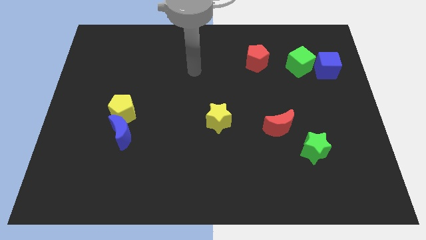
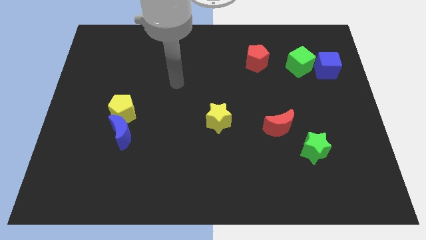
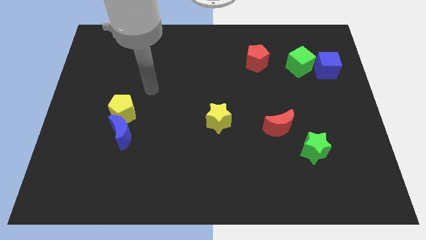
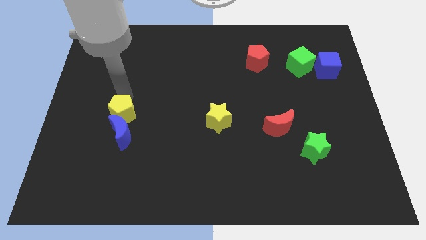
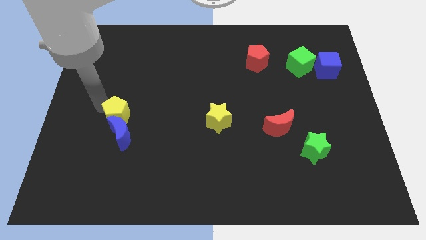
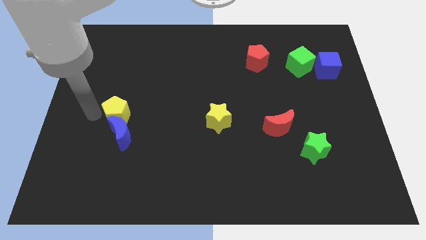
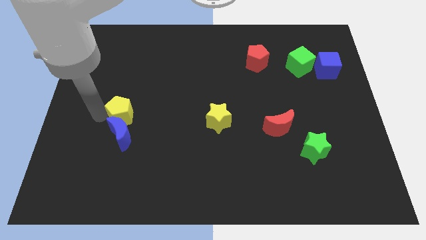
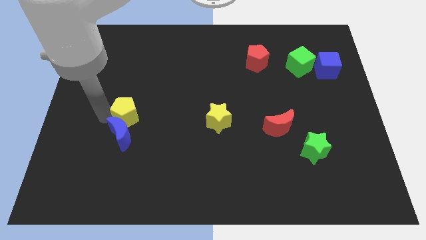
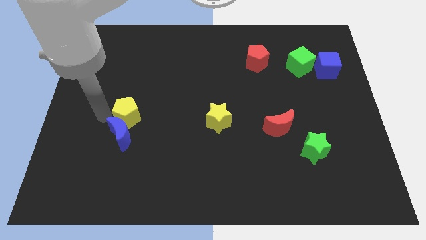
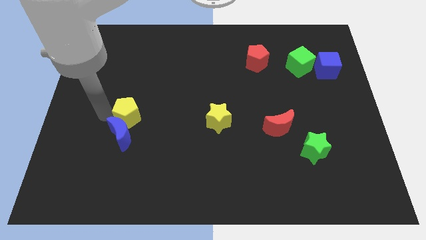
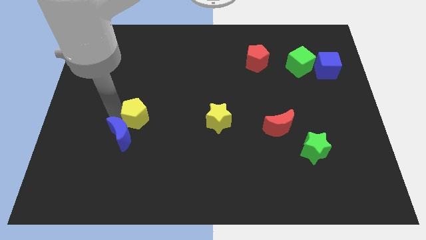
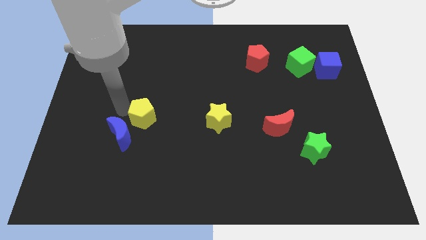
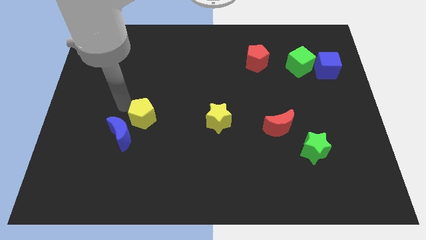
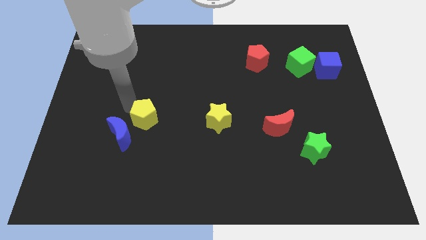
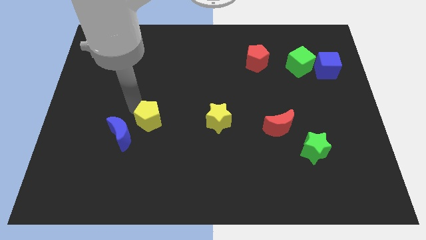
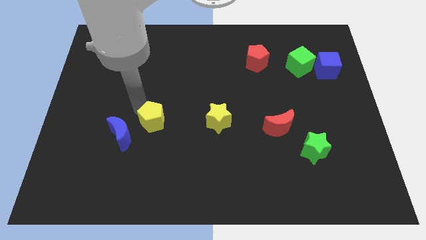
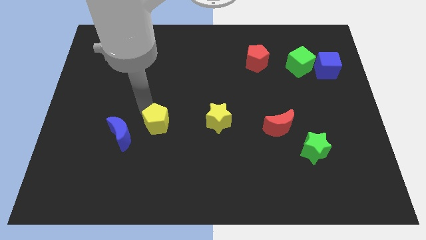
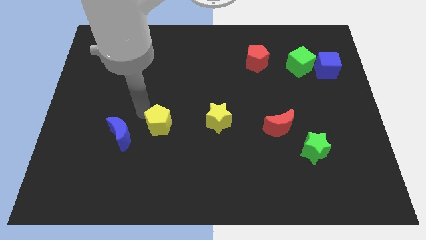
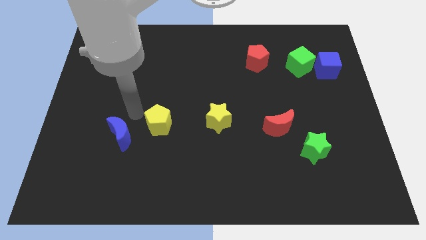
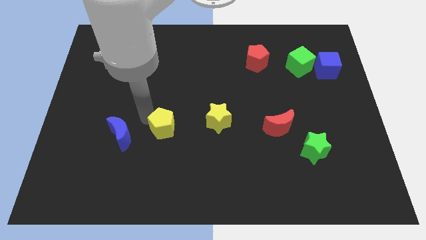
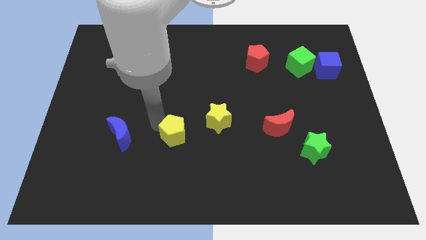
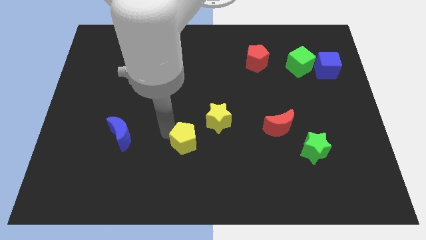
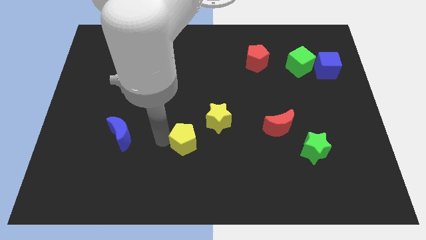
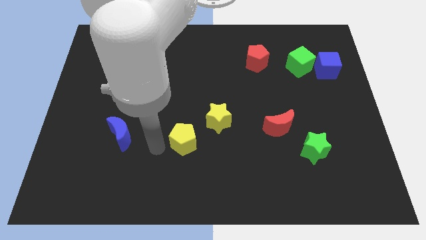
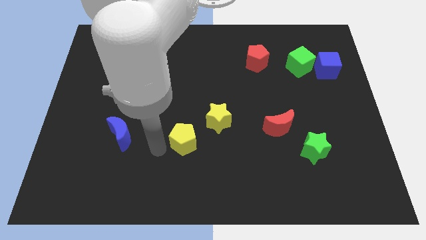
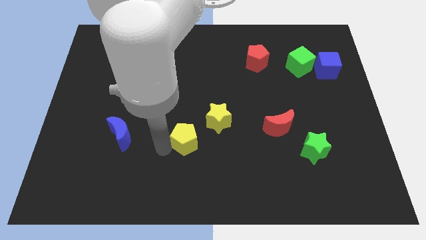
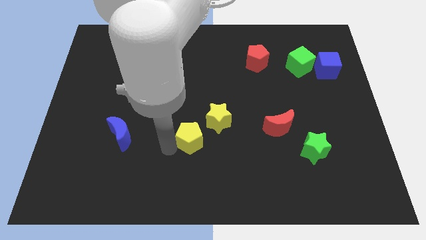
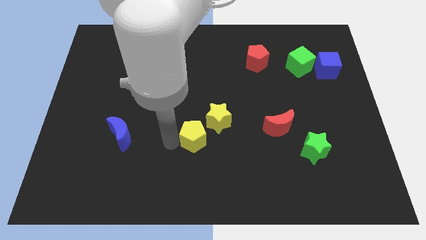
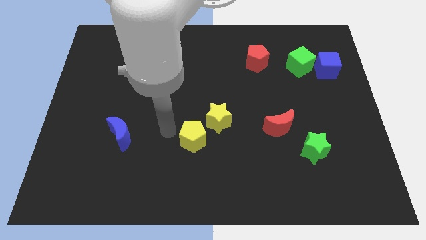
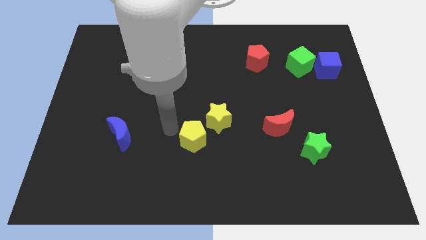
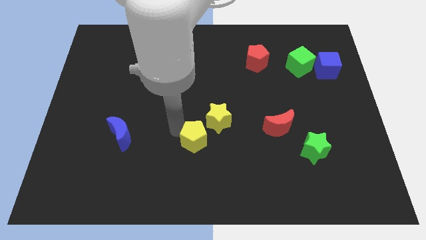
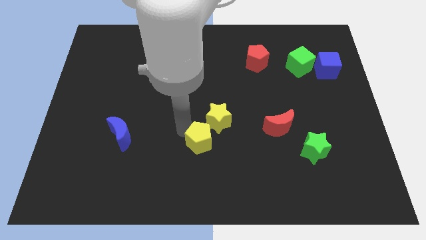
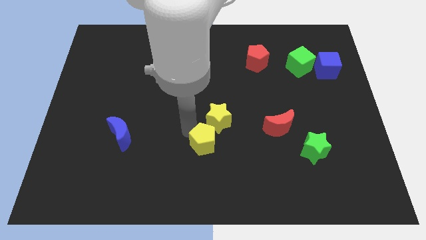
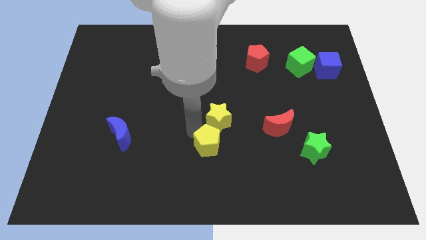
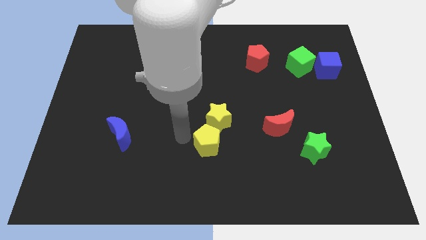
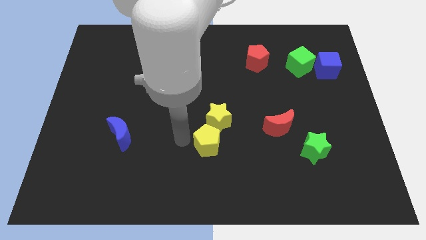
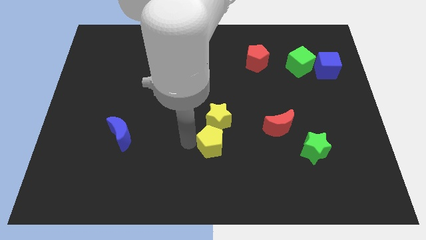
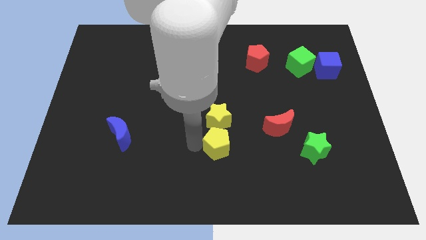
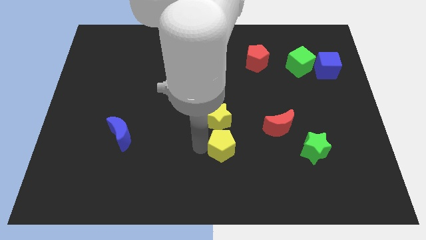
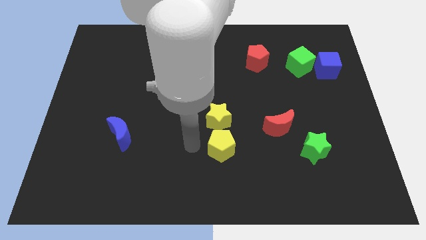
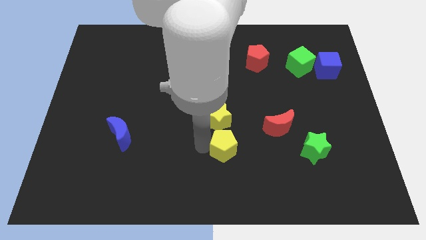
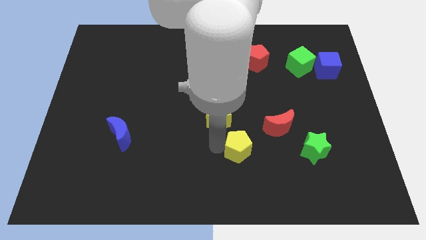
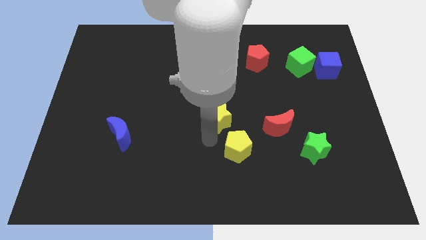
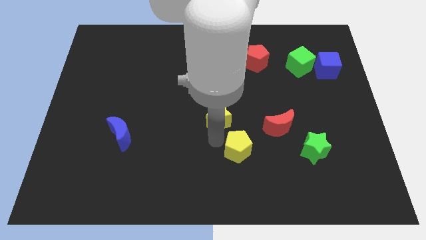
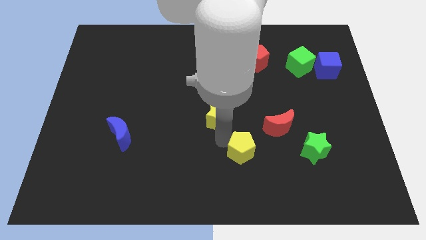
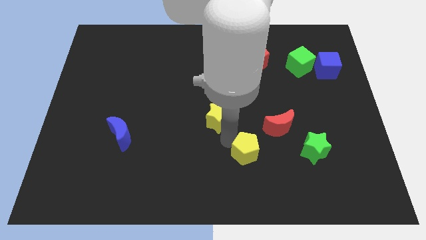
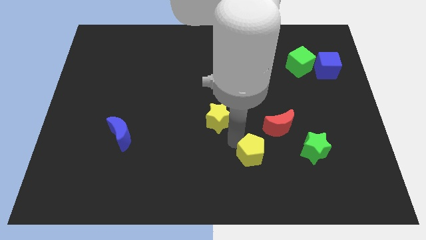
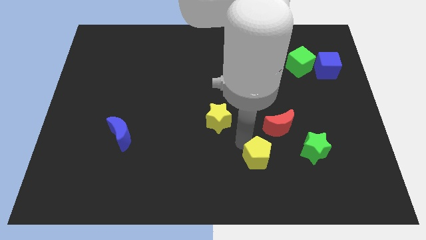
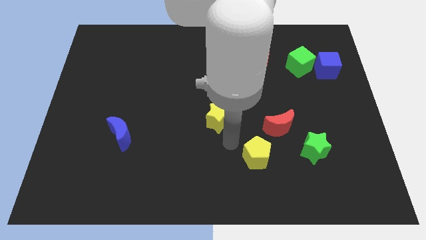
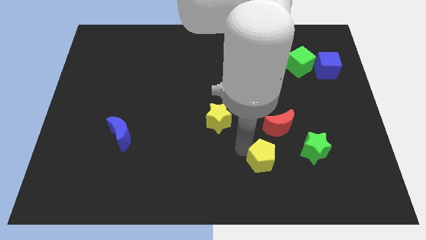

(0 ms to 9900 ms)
slide the yellow pentagon below the red moon

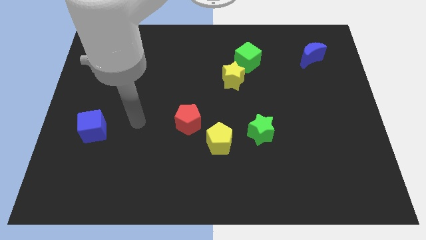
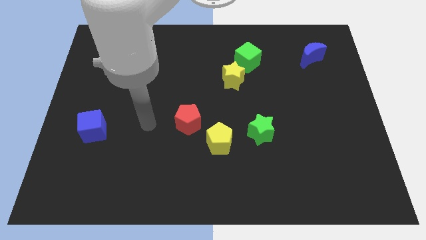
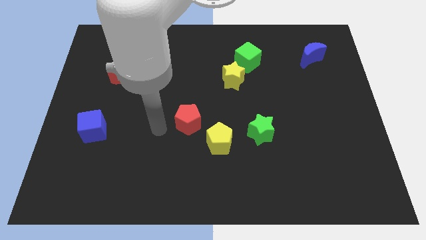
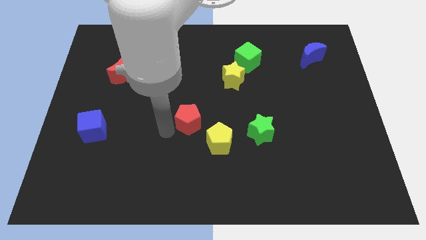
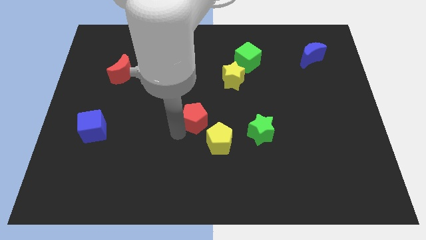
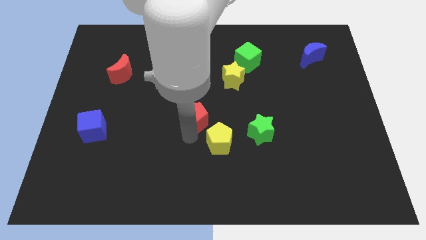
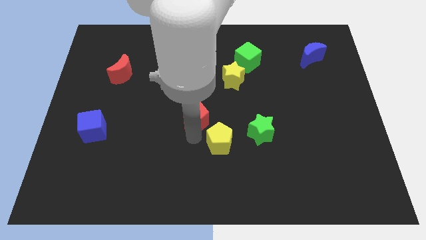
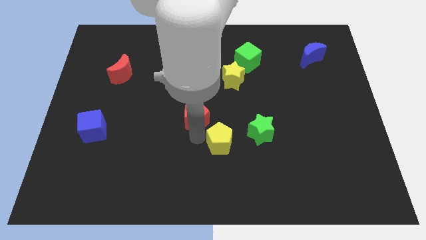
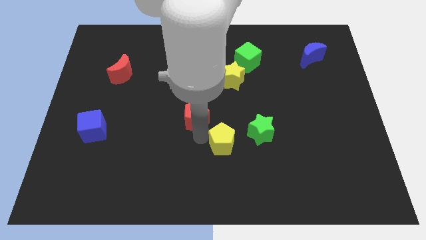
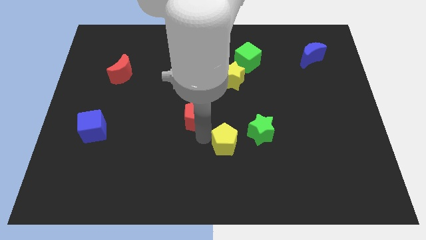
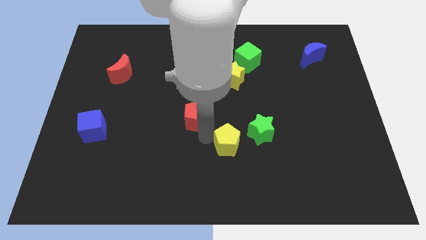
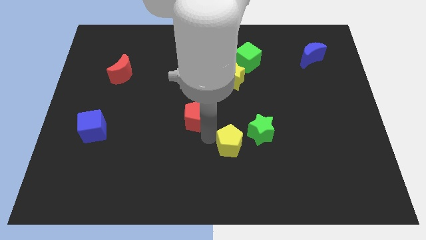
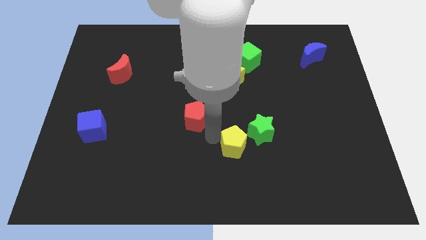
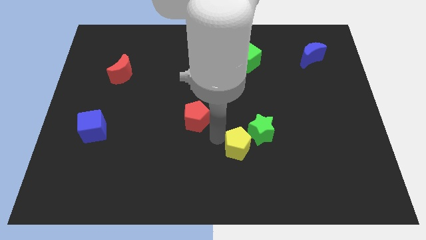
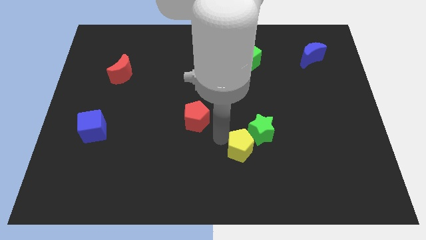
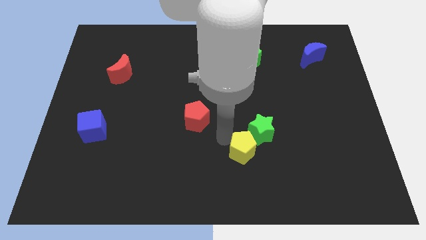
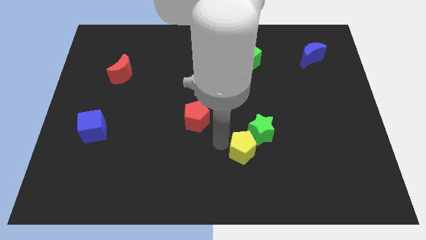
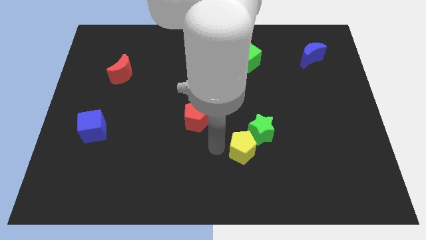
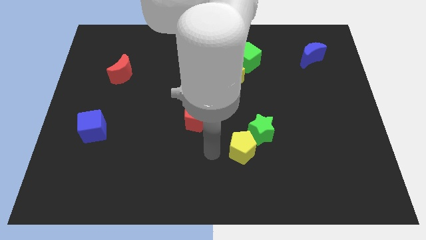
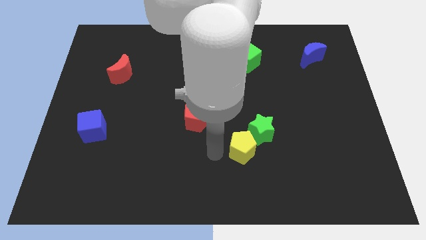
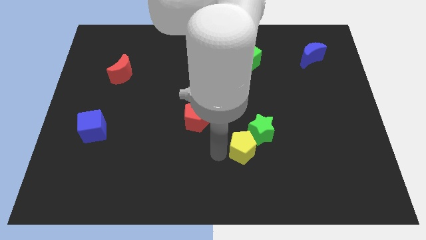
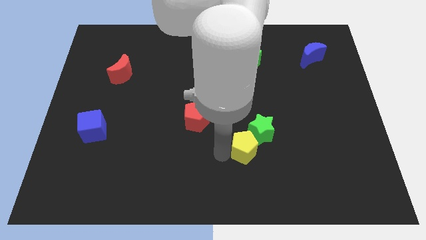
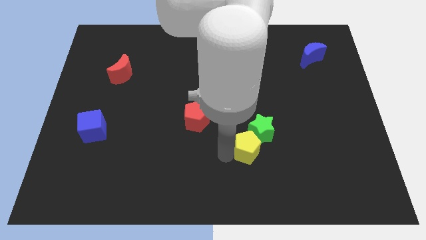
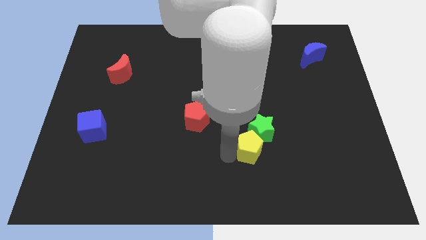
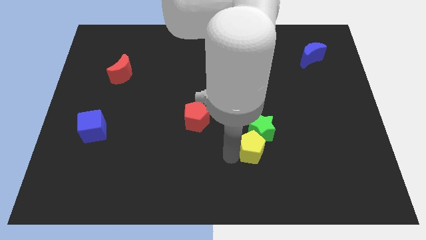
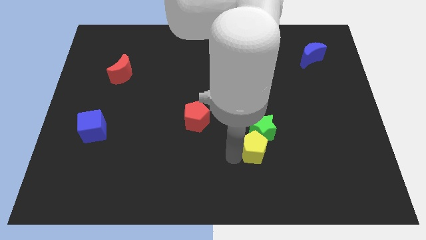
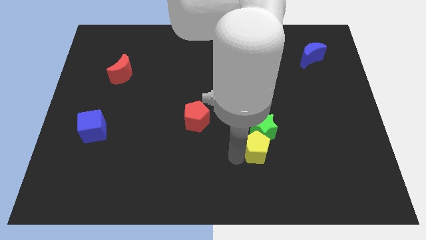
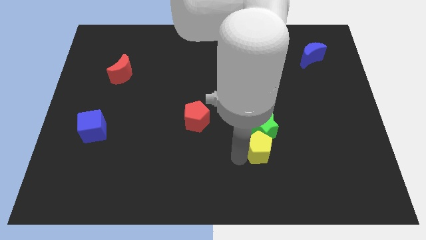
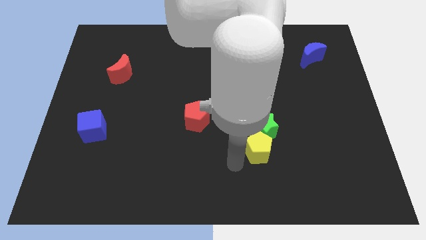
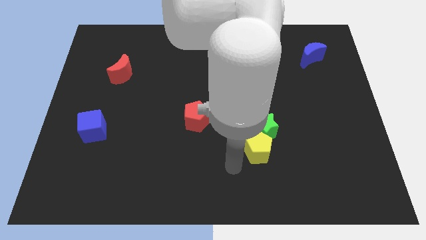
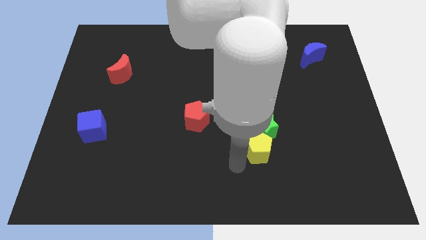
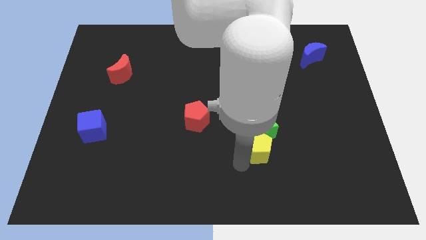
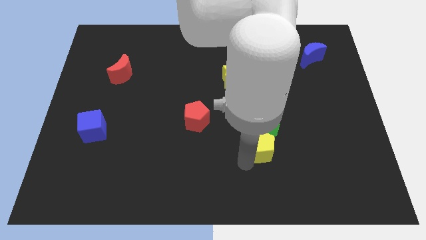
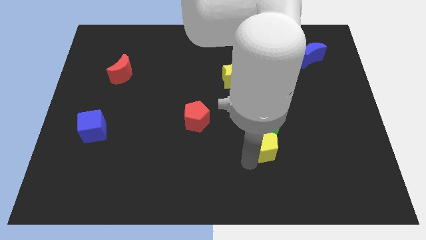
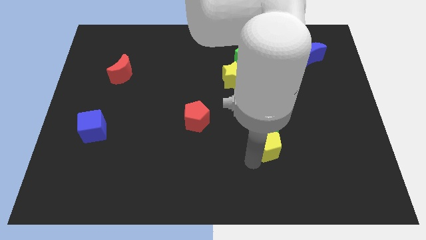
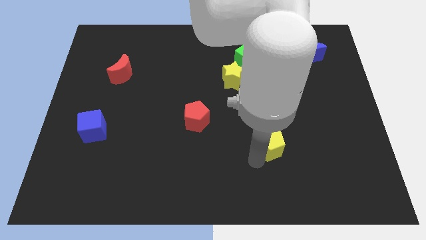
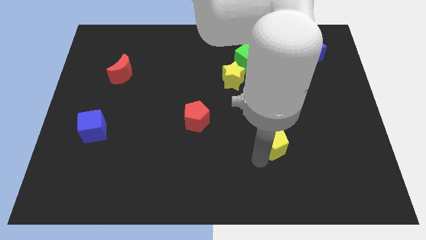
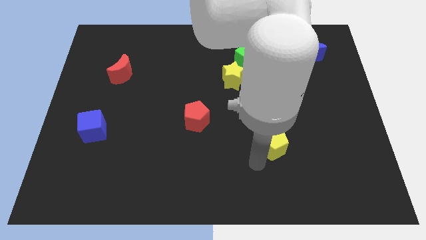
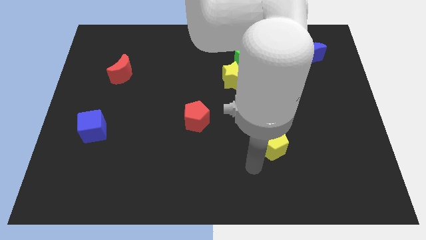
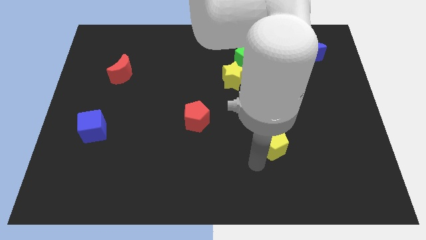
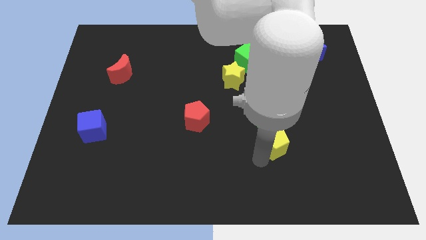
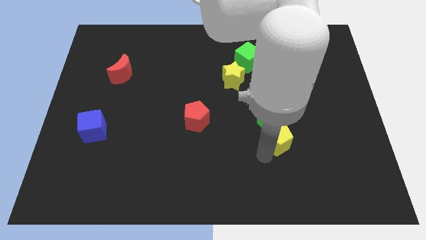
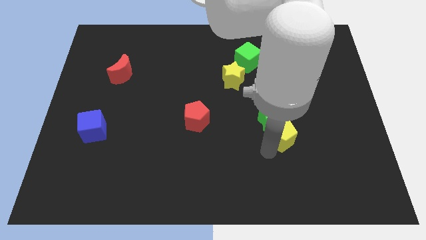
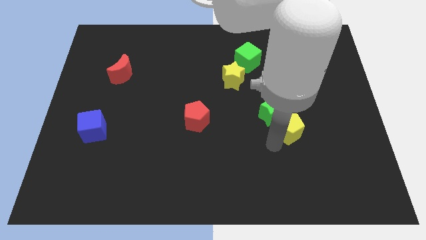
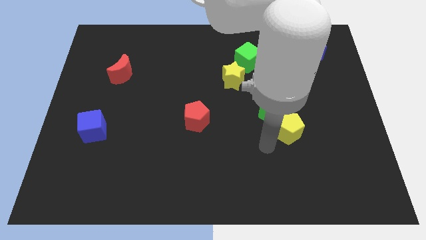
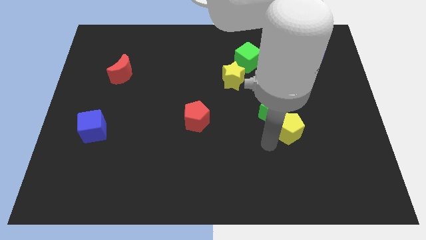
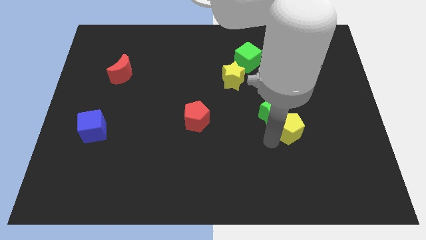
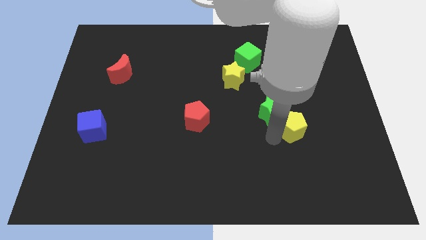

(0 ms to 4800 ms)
slide the yellow pentagon just right of the green star
